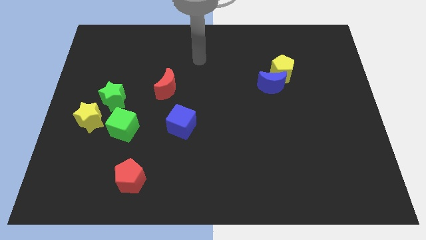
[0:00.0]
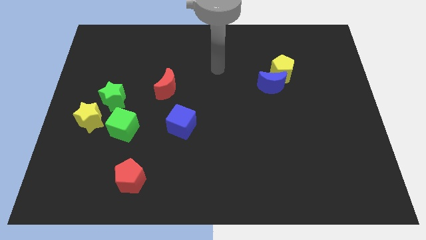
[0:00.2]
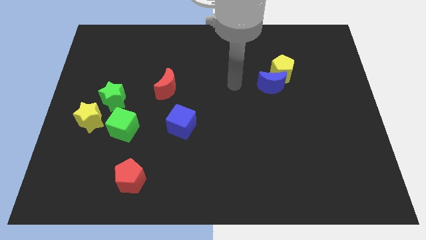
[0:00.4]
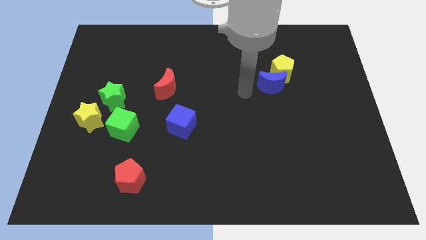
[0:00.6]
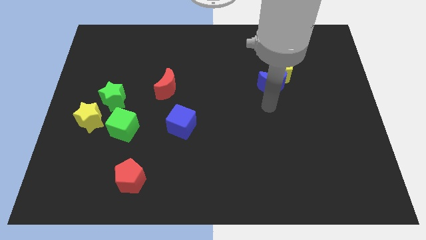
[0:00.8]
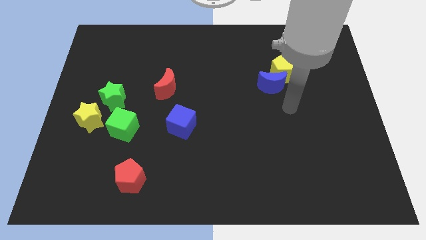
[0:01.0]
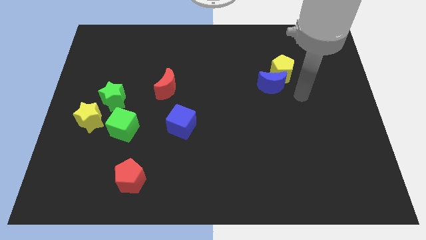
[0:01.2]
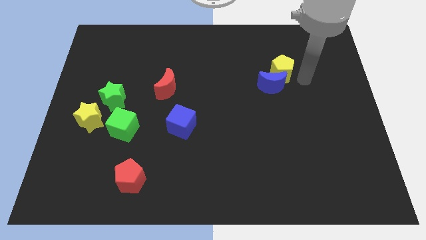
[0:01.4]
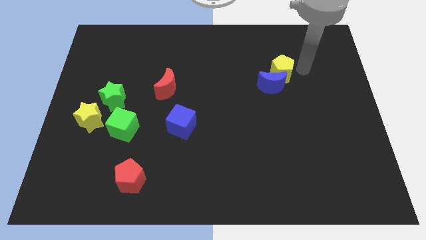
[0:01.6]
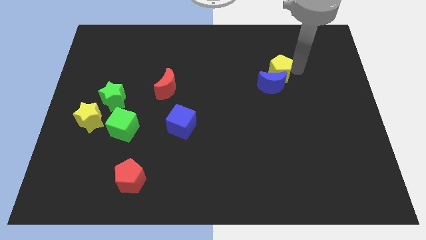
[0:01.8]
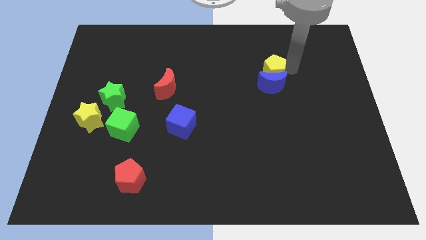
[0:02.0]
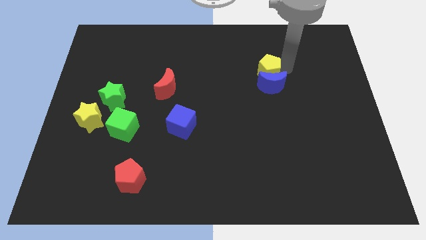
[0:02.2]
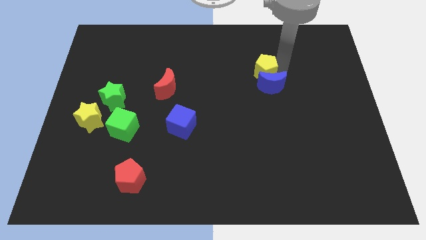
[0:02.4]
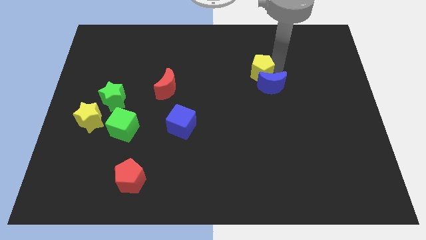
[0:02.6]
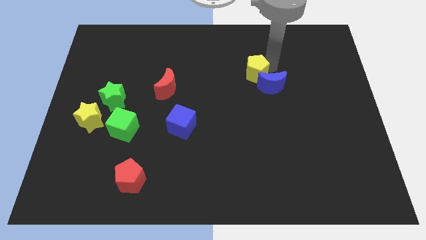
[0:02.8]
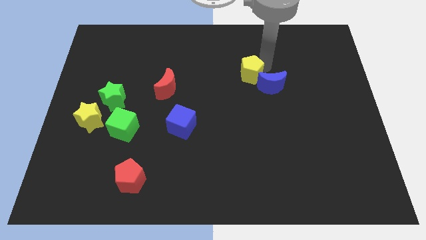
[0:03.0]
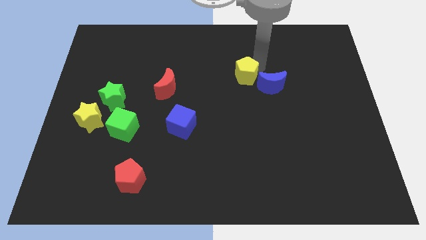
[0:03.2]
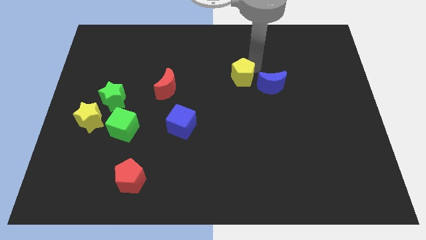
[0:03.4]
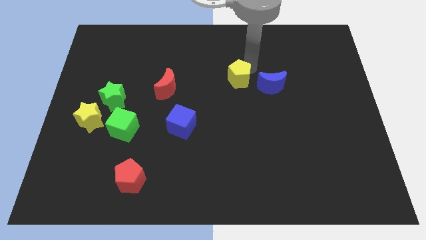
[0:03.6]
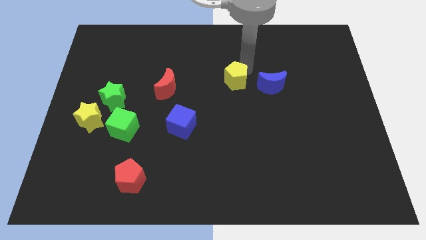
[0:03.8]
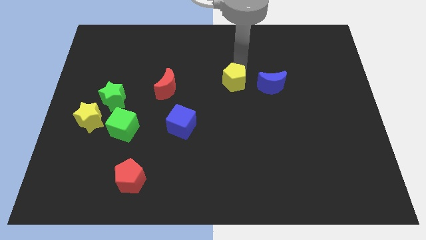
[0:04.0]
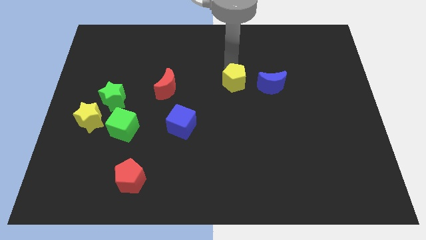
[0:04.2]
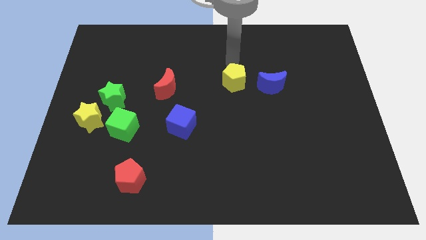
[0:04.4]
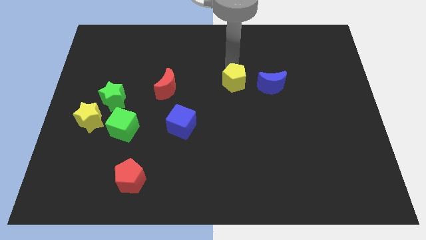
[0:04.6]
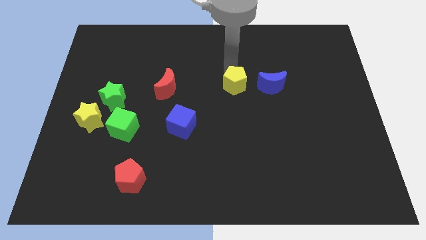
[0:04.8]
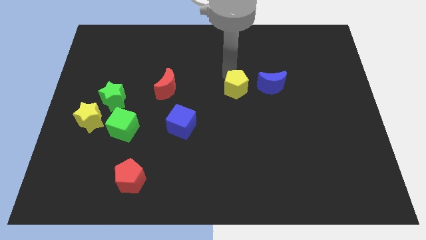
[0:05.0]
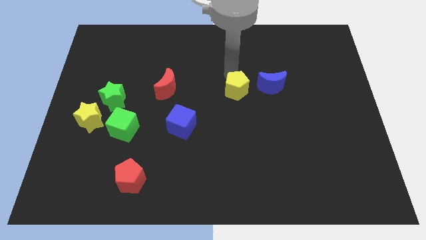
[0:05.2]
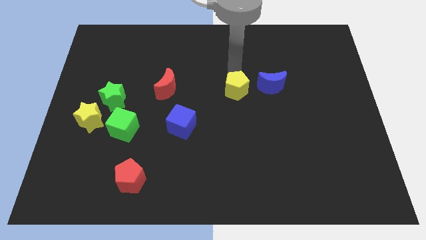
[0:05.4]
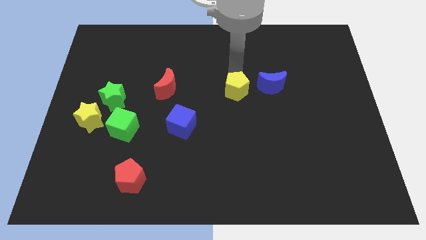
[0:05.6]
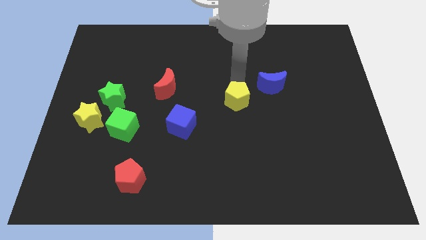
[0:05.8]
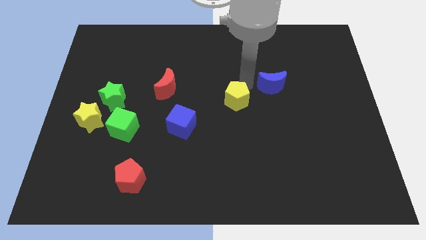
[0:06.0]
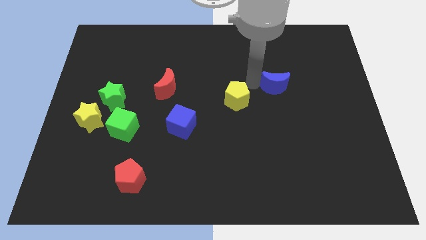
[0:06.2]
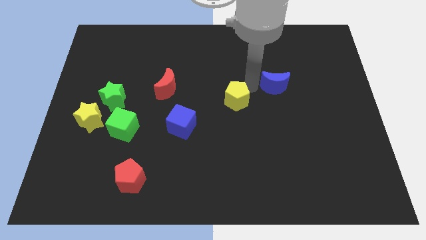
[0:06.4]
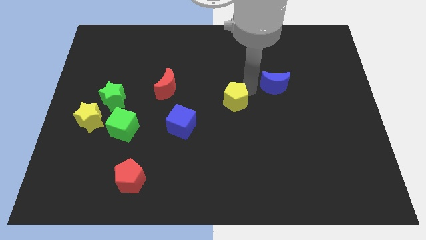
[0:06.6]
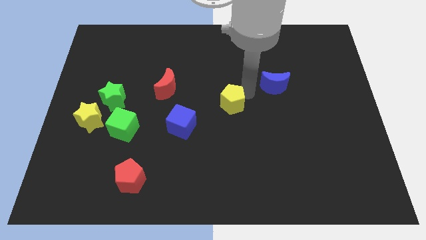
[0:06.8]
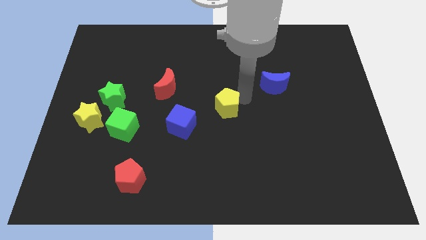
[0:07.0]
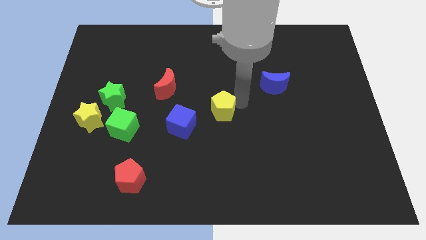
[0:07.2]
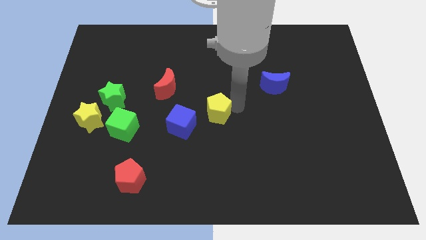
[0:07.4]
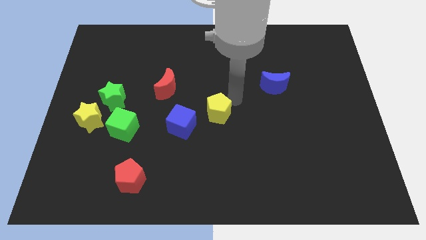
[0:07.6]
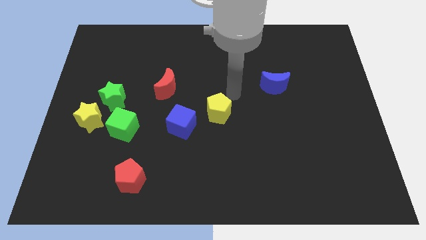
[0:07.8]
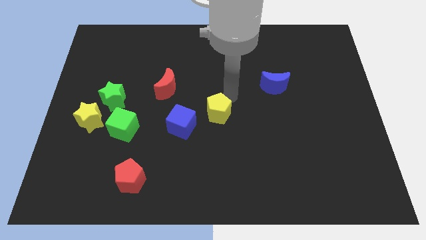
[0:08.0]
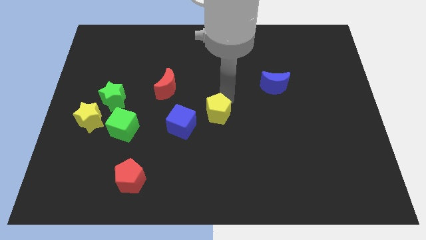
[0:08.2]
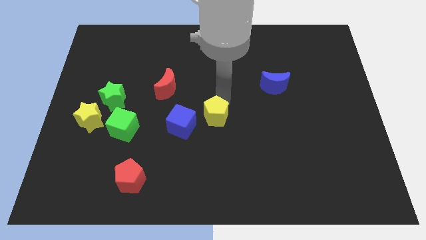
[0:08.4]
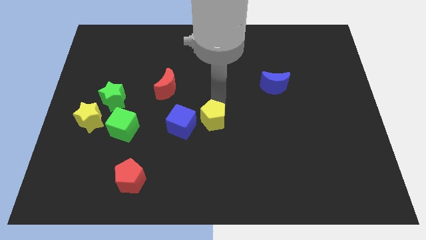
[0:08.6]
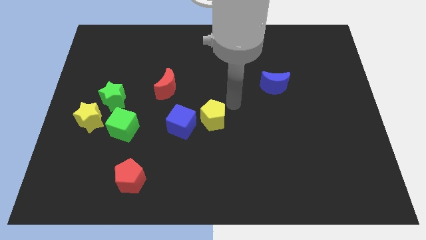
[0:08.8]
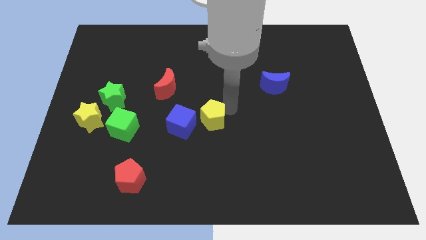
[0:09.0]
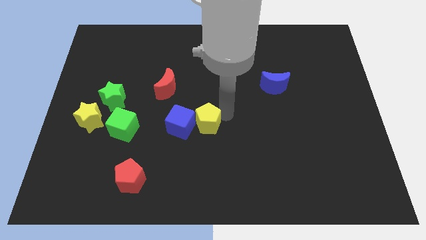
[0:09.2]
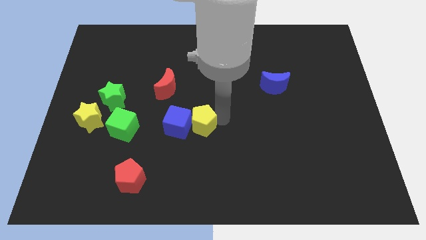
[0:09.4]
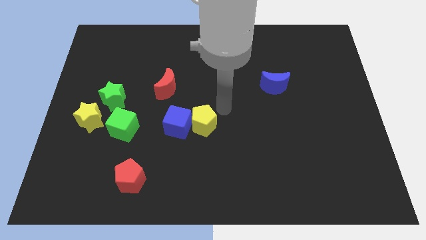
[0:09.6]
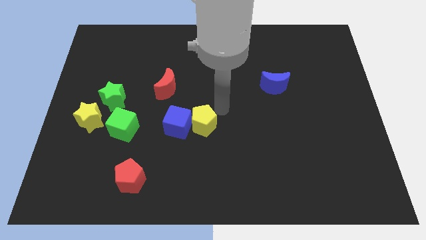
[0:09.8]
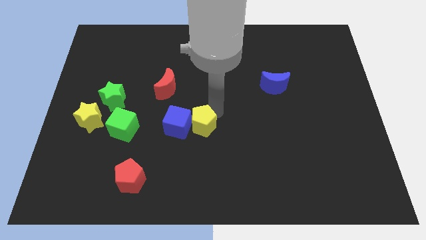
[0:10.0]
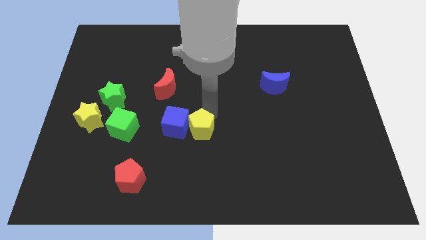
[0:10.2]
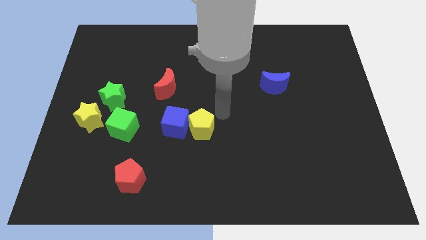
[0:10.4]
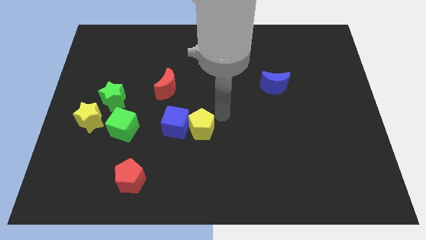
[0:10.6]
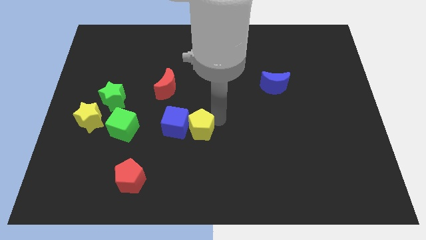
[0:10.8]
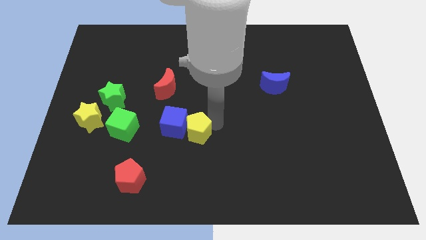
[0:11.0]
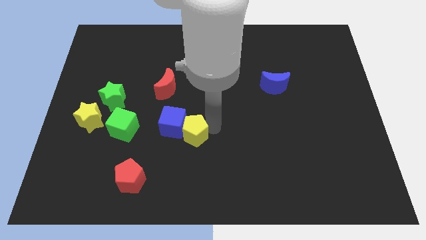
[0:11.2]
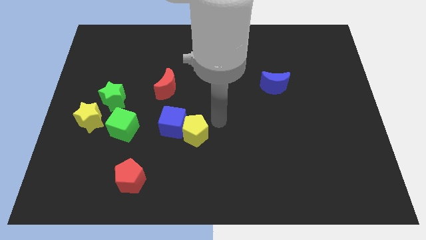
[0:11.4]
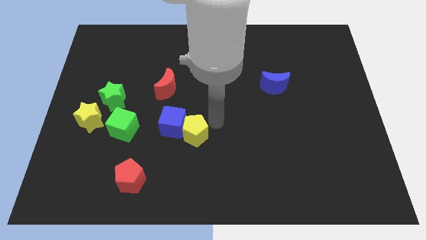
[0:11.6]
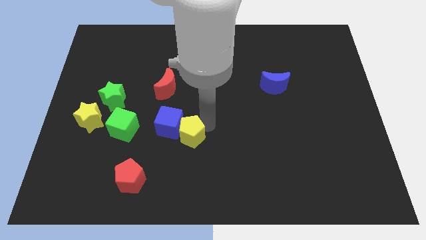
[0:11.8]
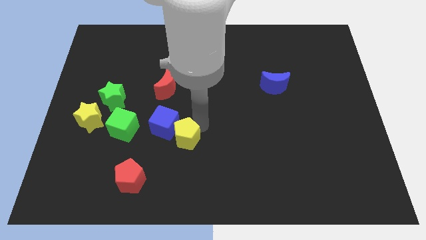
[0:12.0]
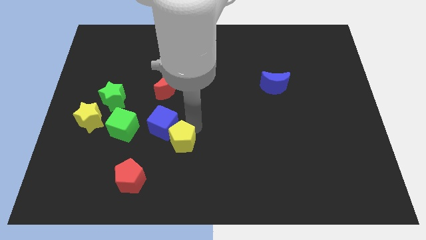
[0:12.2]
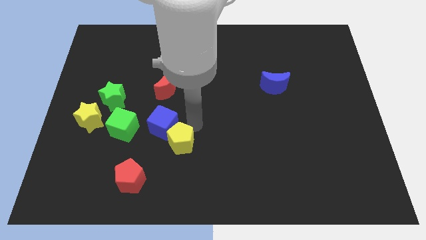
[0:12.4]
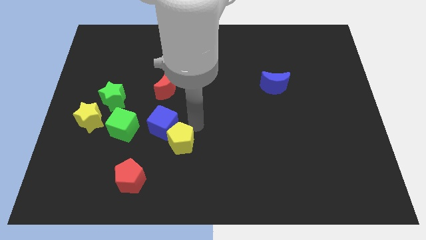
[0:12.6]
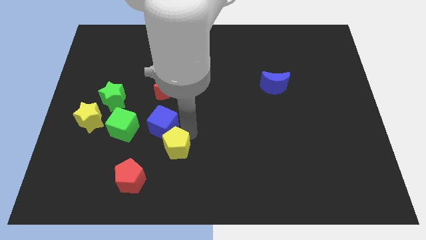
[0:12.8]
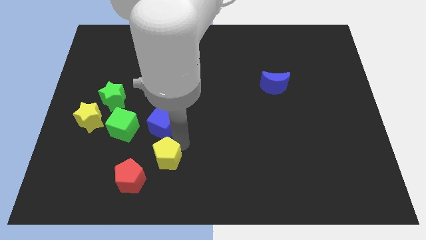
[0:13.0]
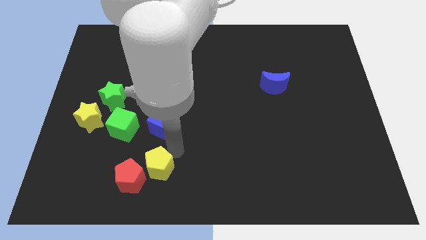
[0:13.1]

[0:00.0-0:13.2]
push the yellow pentagon towards the red pentagon

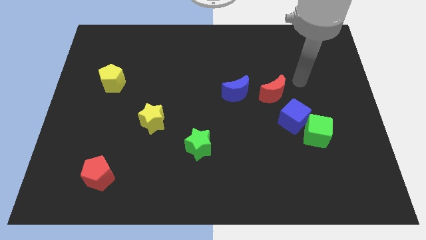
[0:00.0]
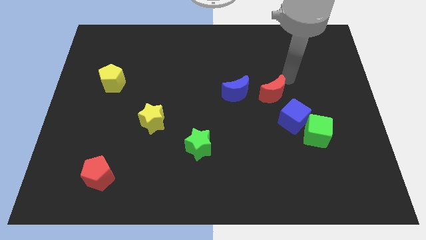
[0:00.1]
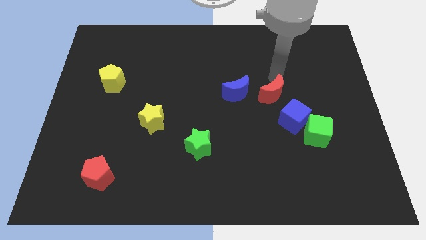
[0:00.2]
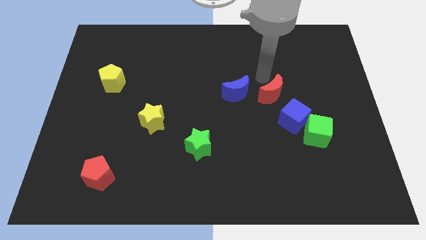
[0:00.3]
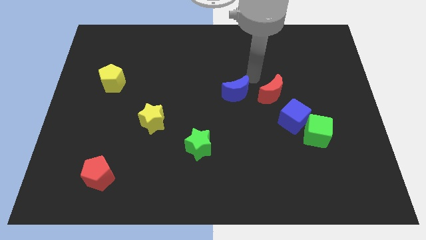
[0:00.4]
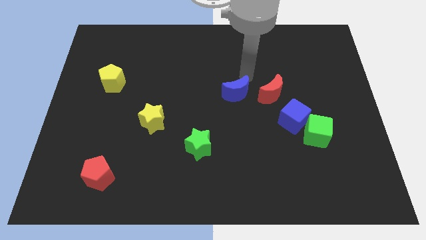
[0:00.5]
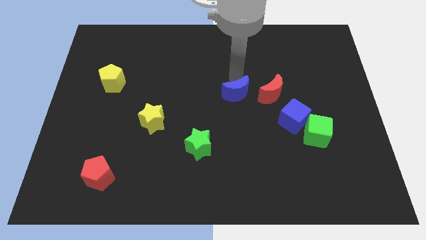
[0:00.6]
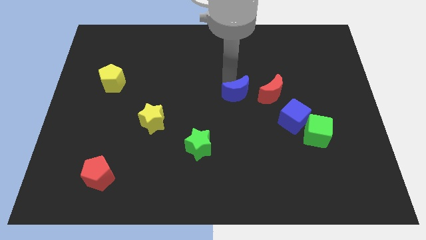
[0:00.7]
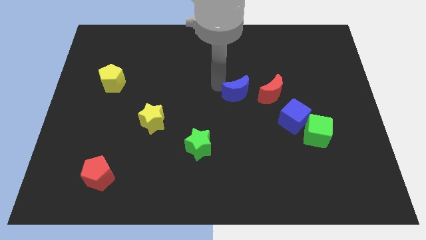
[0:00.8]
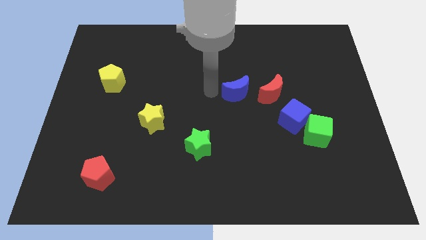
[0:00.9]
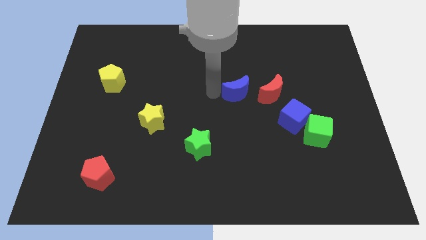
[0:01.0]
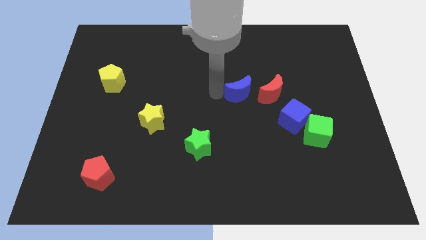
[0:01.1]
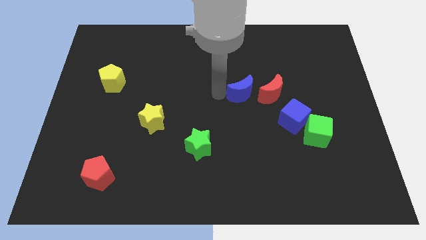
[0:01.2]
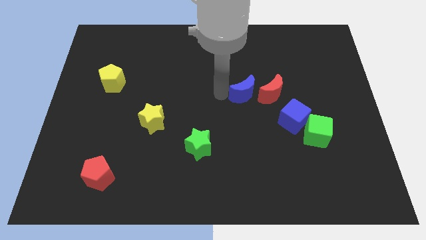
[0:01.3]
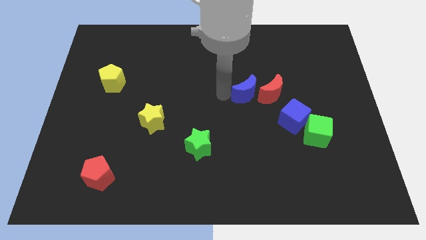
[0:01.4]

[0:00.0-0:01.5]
slide the blue moon next to the red moon
